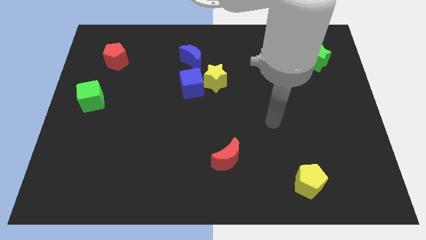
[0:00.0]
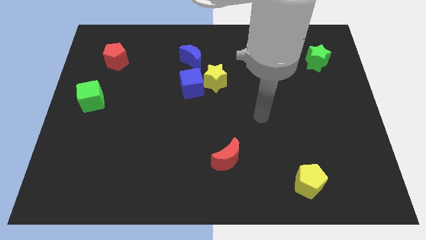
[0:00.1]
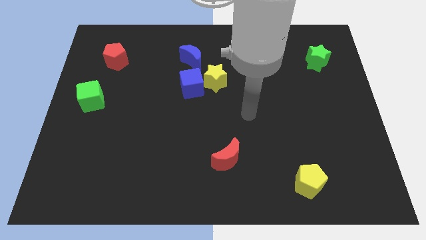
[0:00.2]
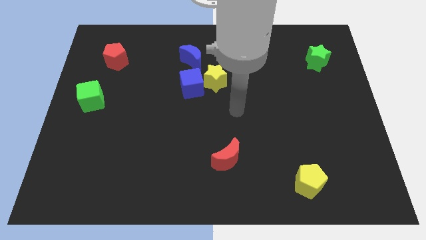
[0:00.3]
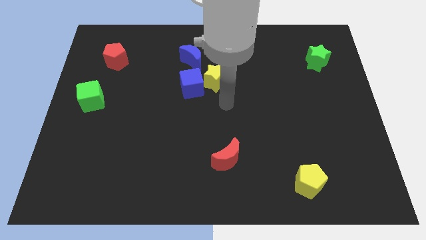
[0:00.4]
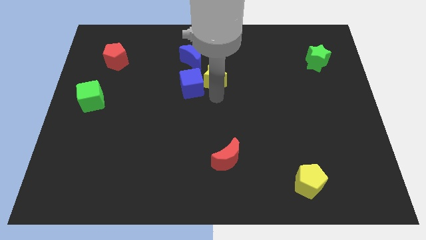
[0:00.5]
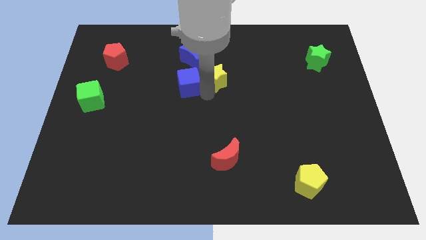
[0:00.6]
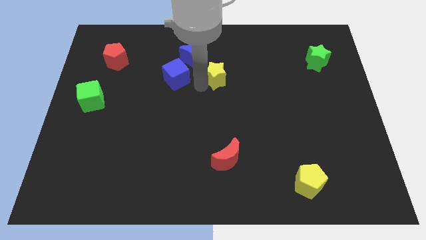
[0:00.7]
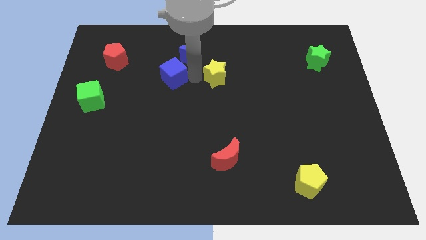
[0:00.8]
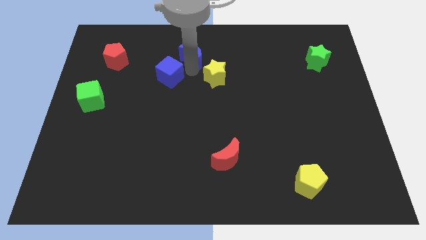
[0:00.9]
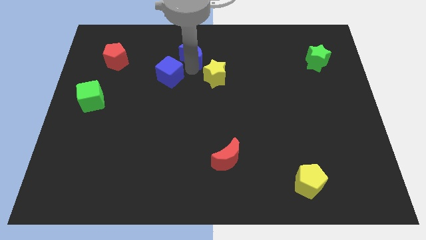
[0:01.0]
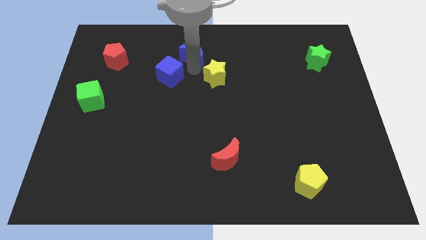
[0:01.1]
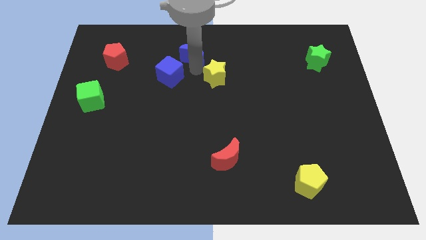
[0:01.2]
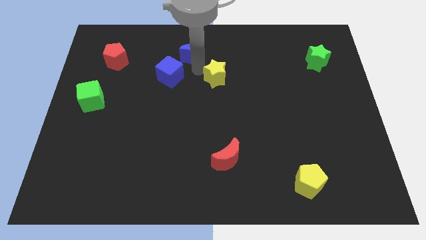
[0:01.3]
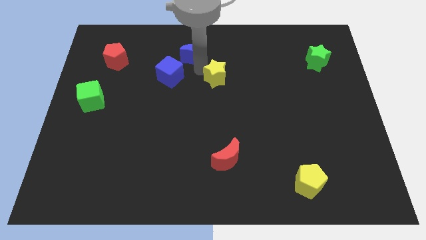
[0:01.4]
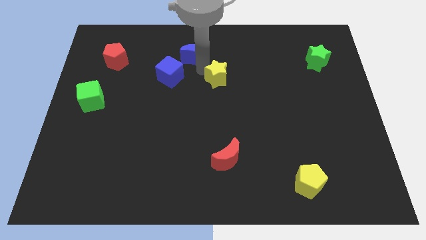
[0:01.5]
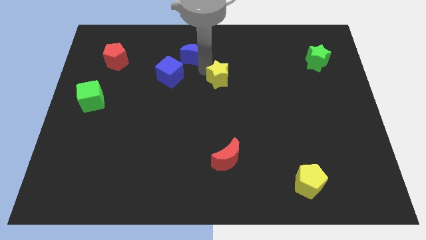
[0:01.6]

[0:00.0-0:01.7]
separate the yellow star from the blue cube and blue moon

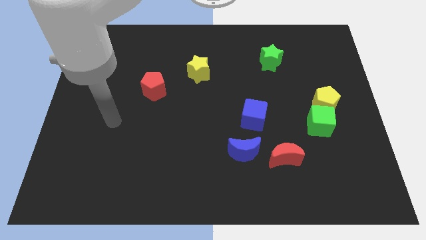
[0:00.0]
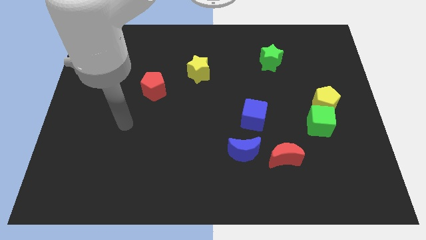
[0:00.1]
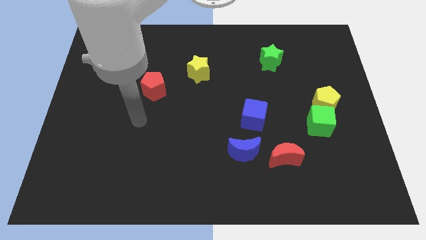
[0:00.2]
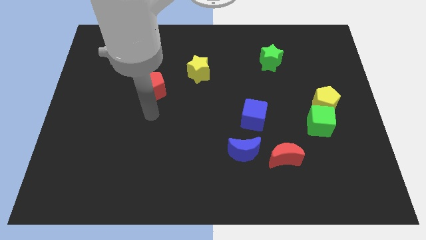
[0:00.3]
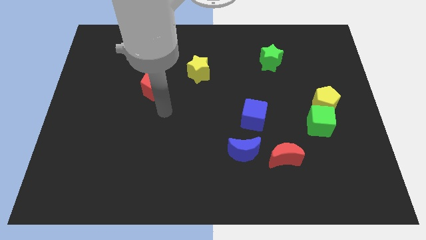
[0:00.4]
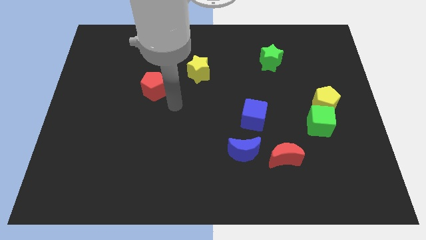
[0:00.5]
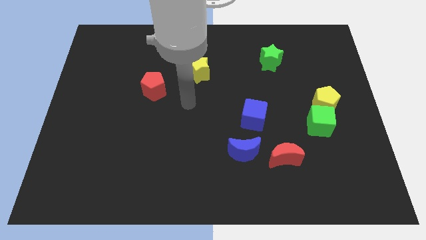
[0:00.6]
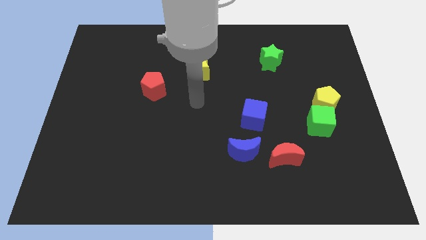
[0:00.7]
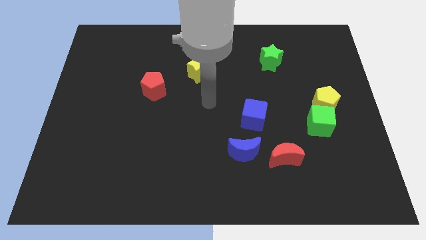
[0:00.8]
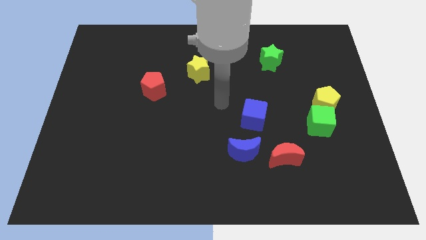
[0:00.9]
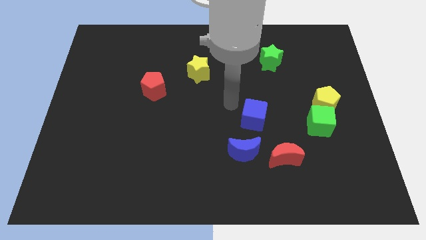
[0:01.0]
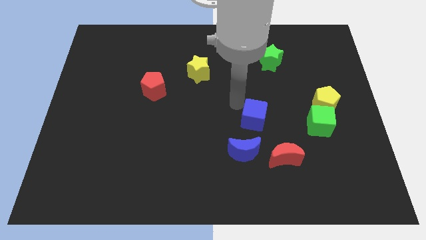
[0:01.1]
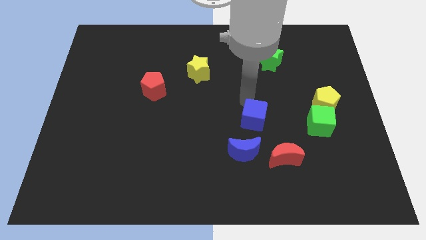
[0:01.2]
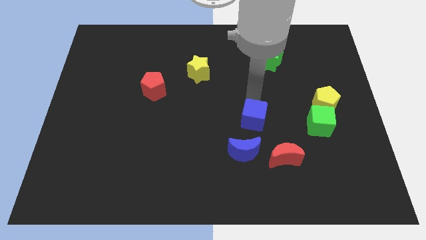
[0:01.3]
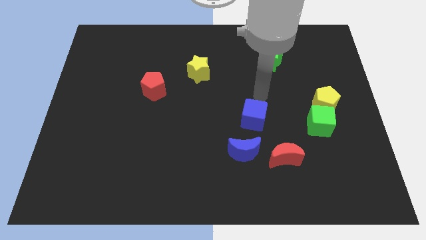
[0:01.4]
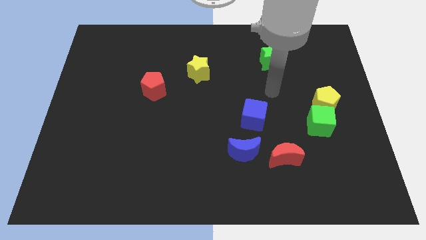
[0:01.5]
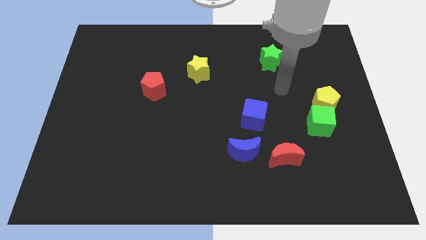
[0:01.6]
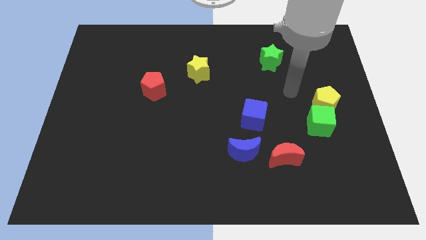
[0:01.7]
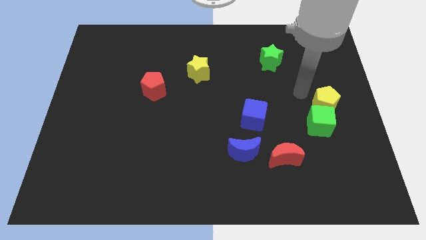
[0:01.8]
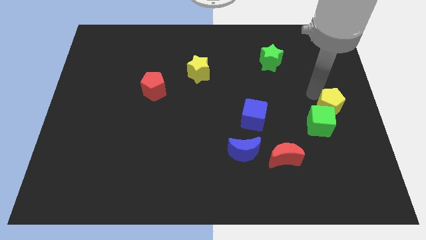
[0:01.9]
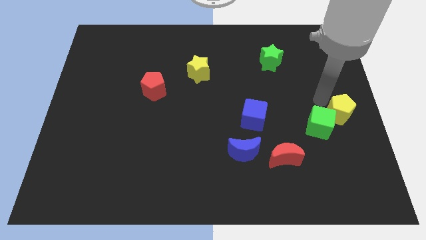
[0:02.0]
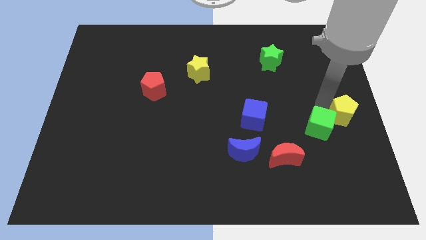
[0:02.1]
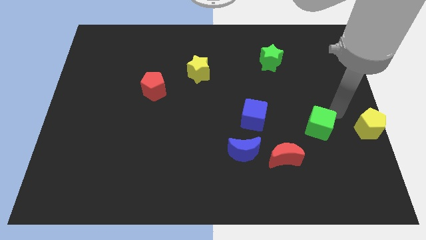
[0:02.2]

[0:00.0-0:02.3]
separate the green cube from the yellow pentagon

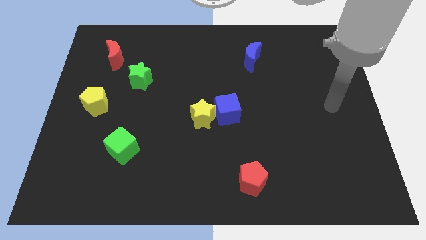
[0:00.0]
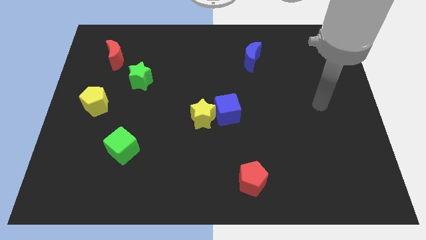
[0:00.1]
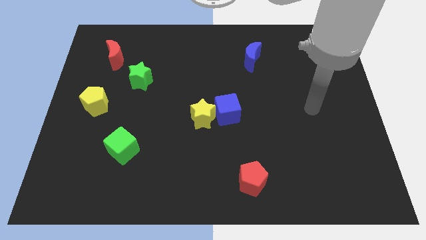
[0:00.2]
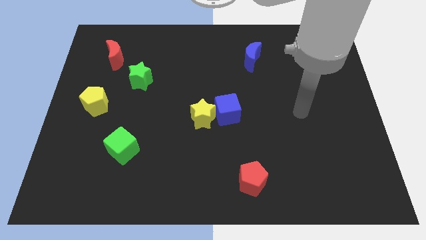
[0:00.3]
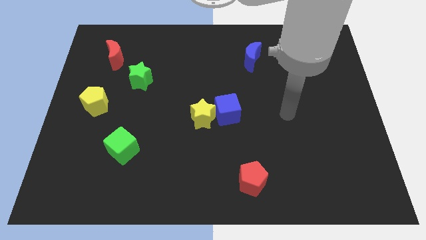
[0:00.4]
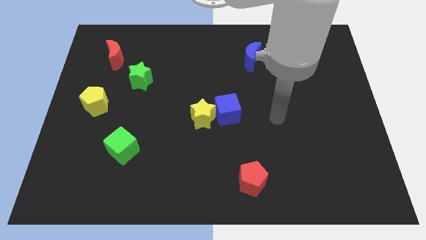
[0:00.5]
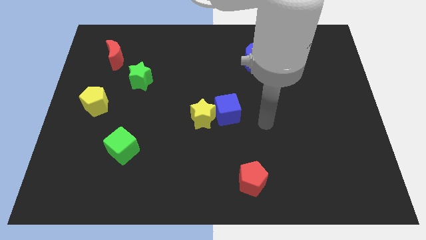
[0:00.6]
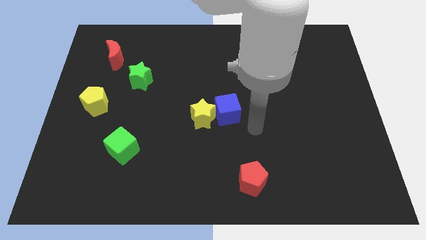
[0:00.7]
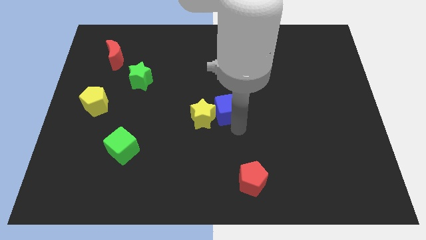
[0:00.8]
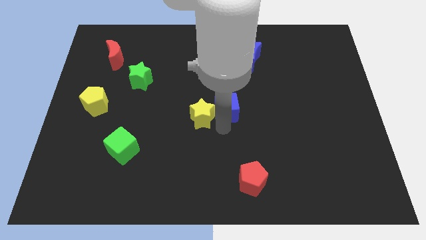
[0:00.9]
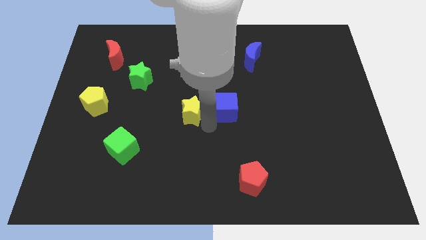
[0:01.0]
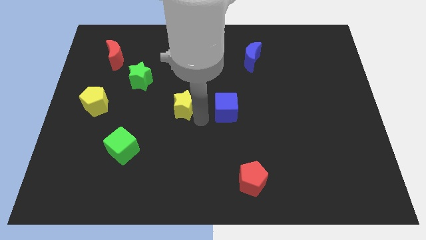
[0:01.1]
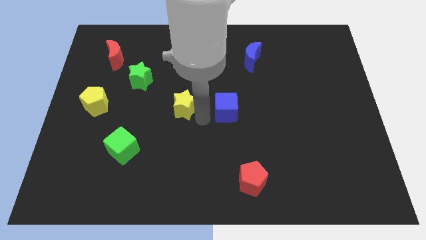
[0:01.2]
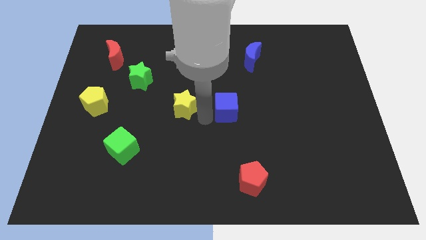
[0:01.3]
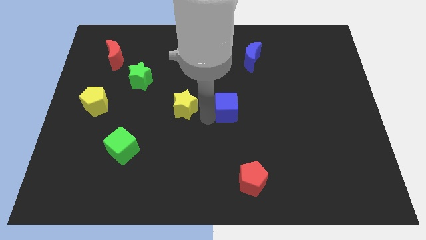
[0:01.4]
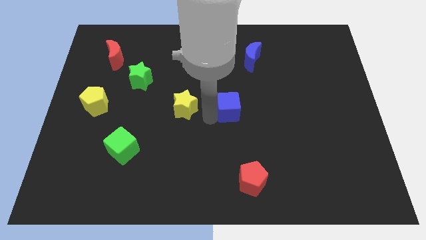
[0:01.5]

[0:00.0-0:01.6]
pull the blue cube apart from the yellow star

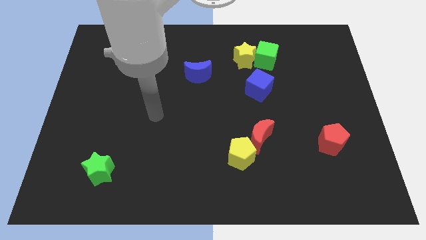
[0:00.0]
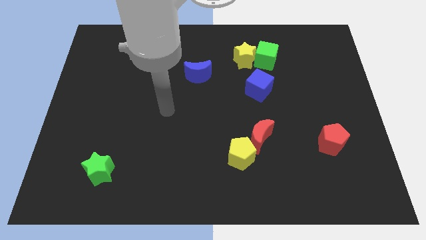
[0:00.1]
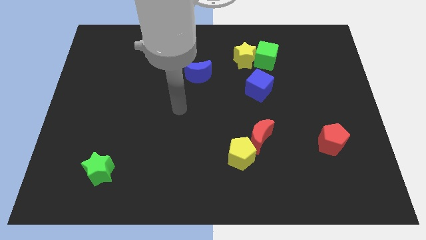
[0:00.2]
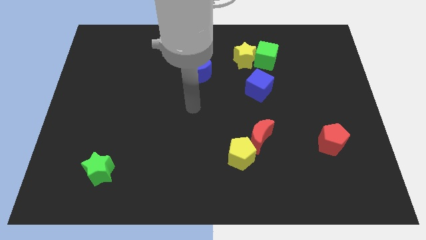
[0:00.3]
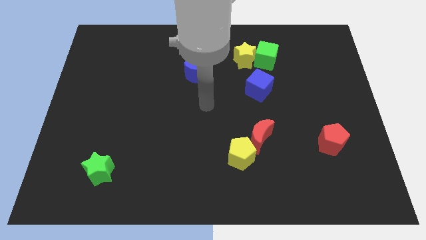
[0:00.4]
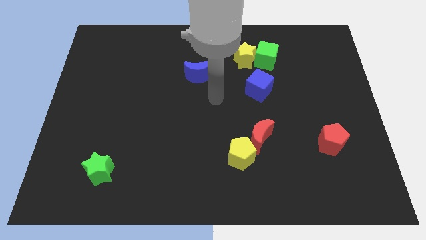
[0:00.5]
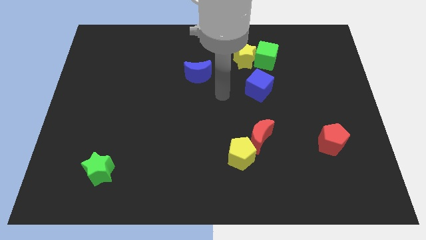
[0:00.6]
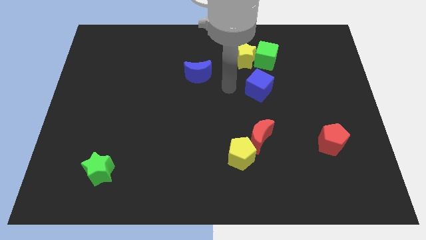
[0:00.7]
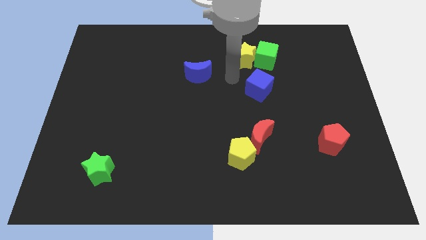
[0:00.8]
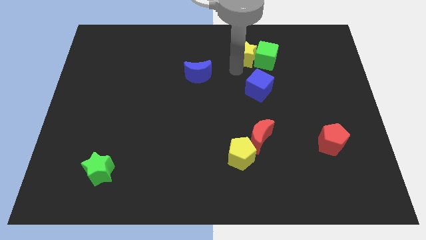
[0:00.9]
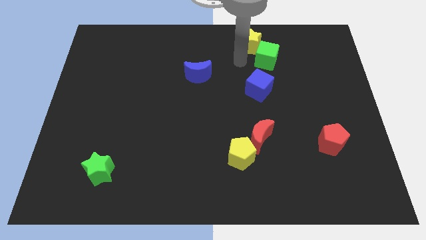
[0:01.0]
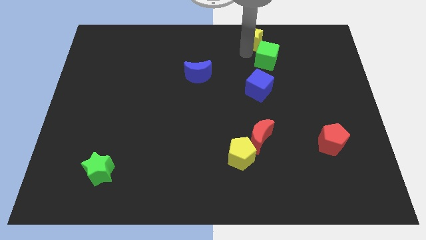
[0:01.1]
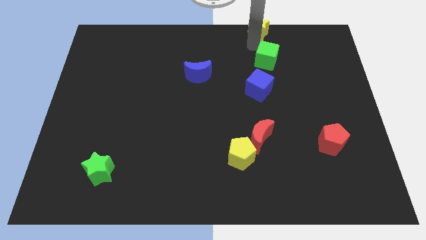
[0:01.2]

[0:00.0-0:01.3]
separate the green cube from the yellow star

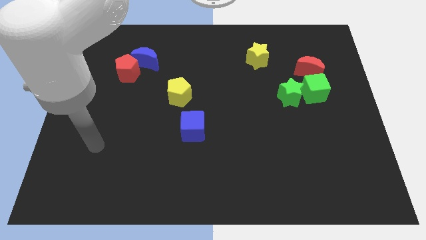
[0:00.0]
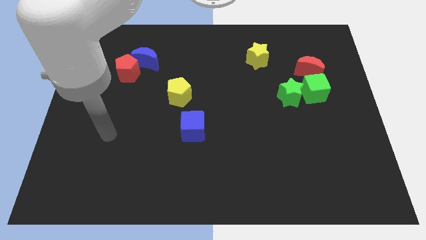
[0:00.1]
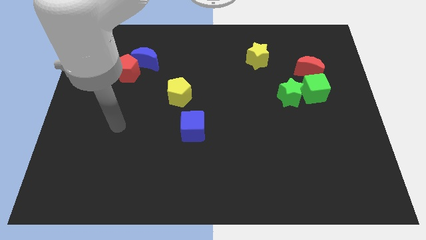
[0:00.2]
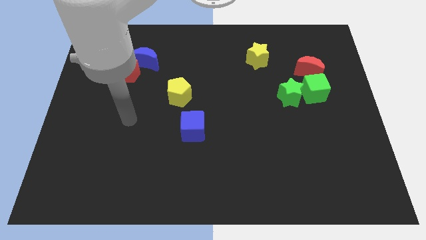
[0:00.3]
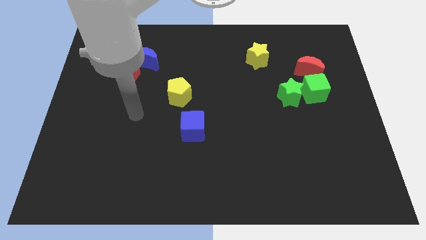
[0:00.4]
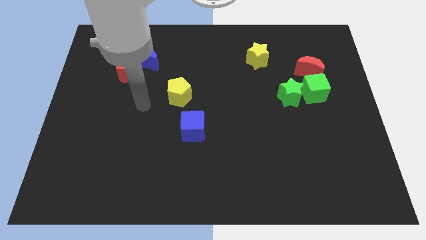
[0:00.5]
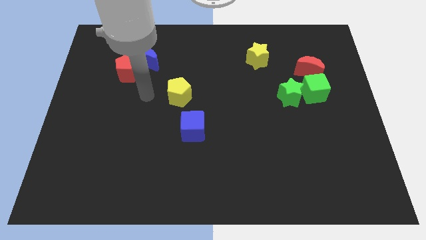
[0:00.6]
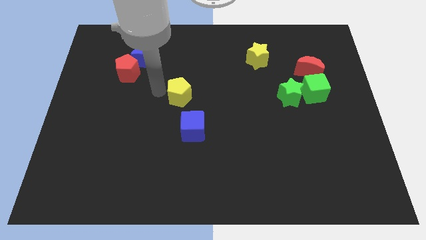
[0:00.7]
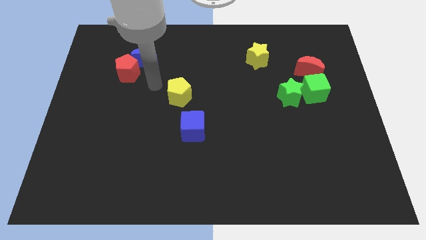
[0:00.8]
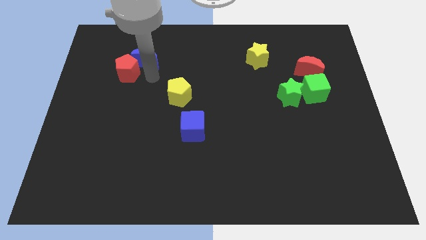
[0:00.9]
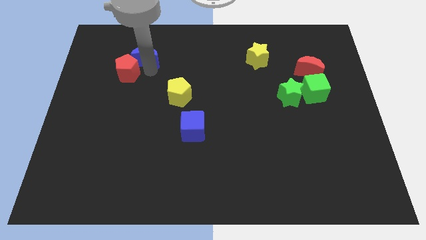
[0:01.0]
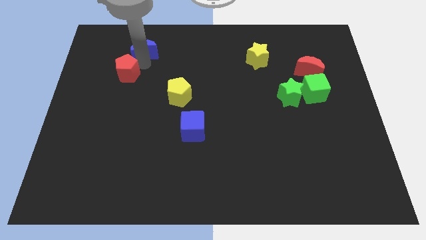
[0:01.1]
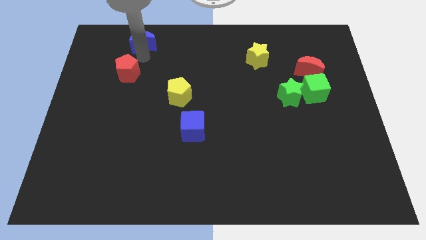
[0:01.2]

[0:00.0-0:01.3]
separate the red pentagon from the blue moon

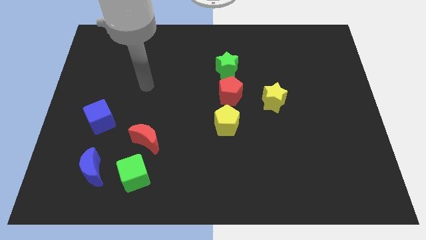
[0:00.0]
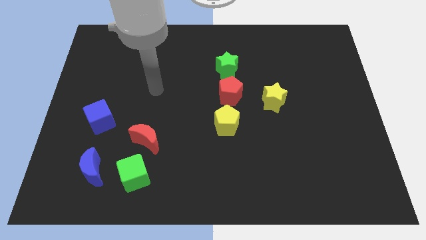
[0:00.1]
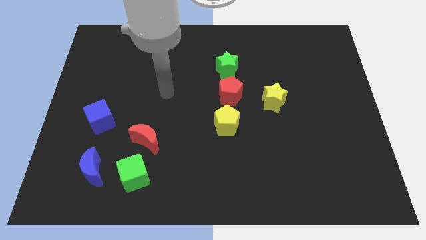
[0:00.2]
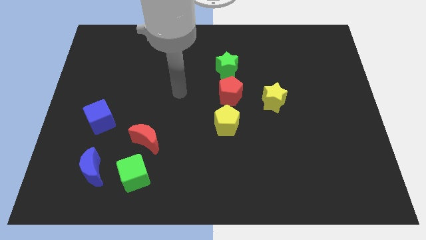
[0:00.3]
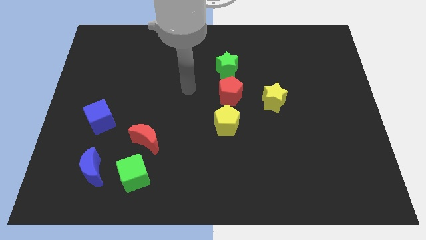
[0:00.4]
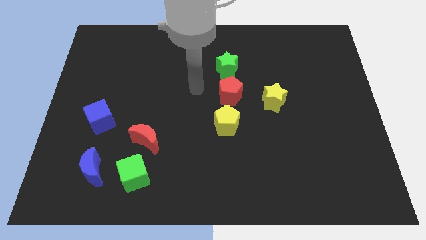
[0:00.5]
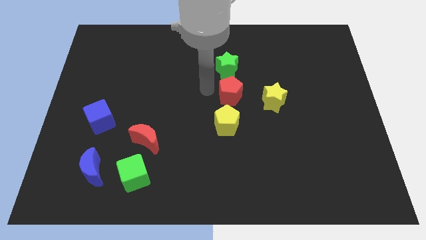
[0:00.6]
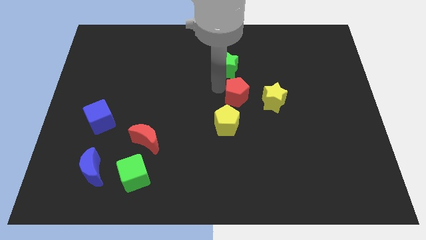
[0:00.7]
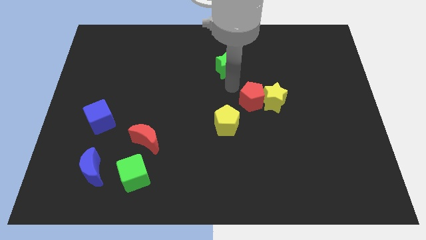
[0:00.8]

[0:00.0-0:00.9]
pull the green star apart from the red pentagon

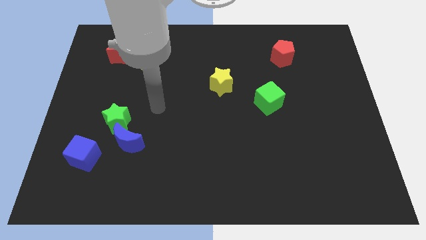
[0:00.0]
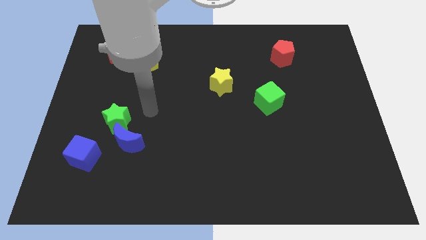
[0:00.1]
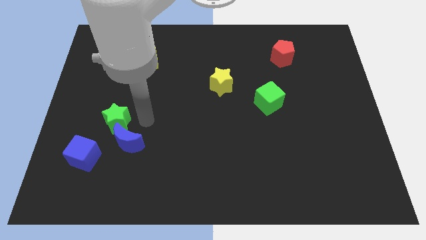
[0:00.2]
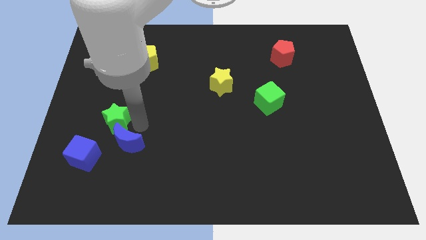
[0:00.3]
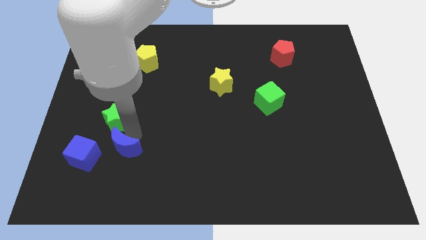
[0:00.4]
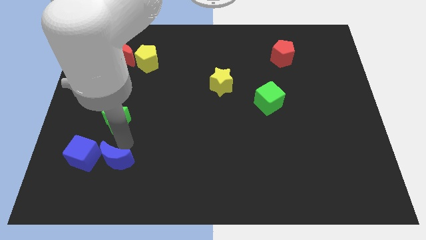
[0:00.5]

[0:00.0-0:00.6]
pull the green star apart from the blue moon
